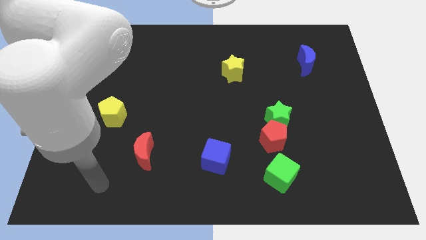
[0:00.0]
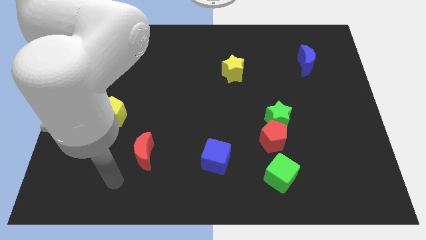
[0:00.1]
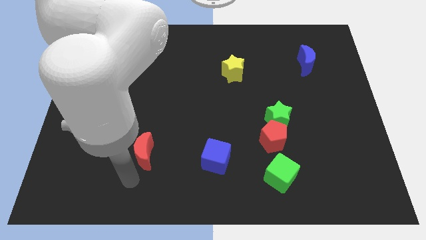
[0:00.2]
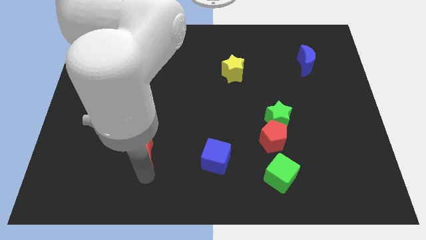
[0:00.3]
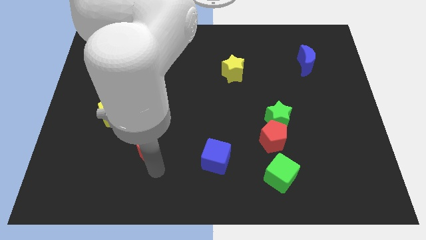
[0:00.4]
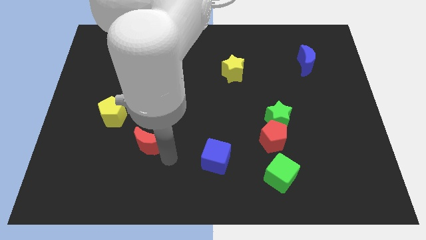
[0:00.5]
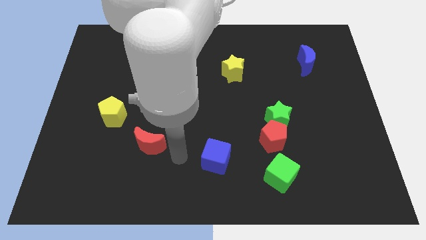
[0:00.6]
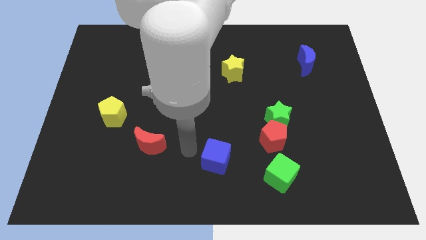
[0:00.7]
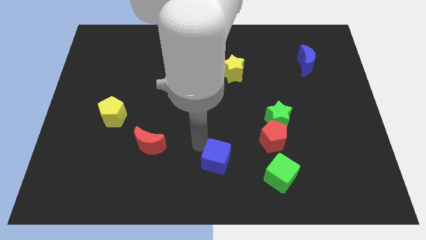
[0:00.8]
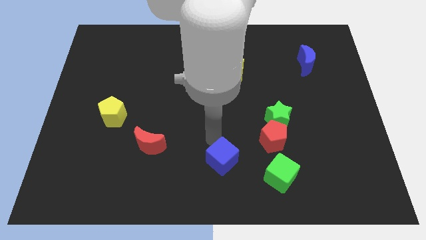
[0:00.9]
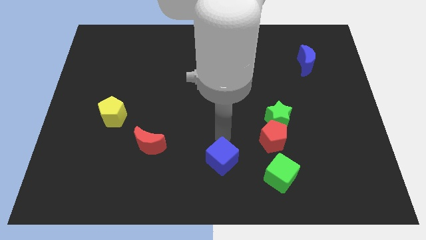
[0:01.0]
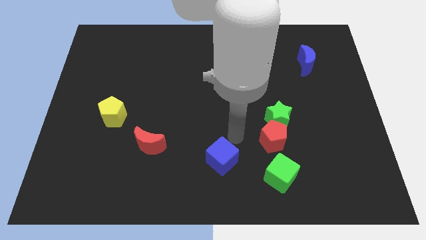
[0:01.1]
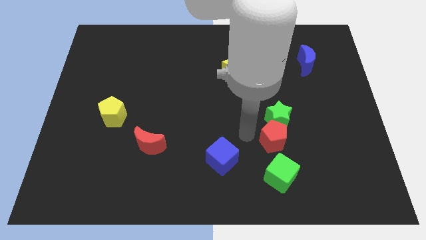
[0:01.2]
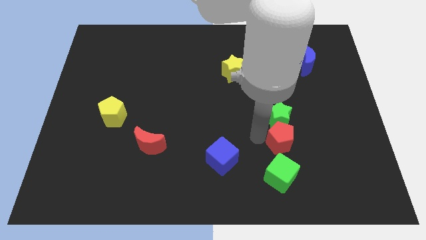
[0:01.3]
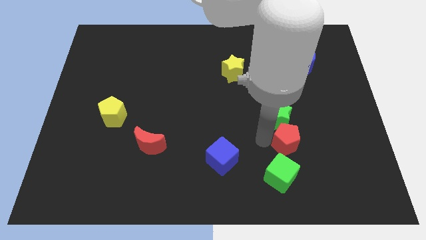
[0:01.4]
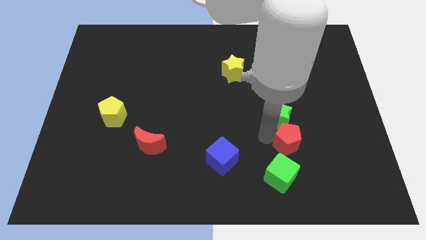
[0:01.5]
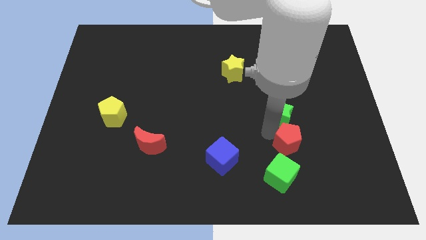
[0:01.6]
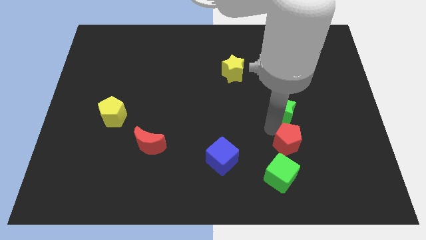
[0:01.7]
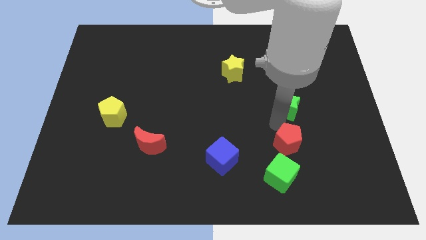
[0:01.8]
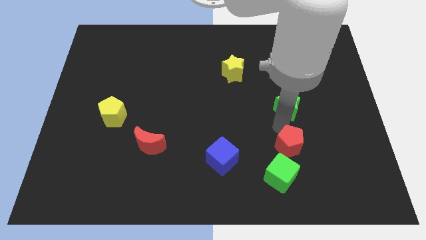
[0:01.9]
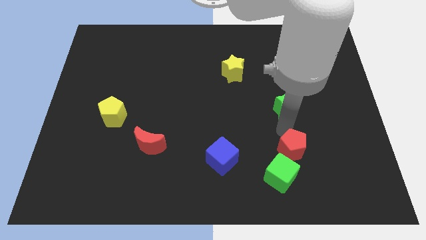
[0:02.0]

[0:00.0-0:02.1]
move the green star away from the red pentagon

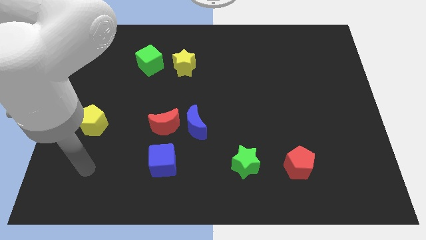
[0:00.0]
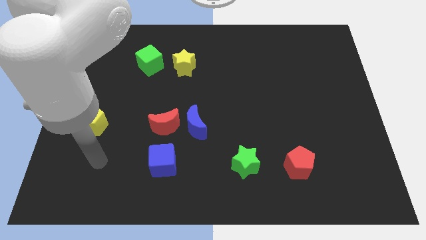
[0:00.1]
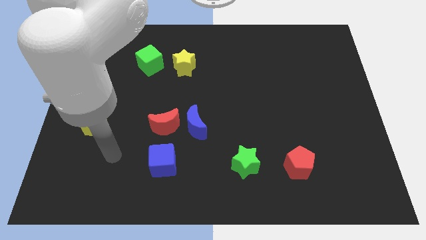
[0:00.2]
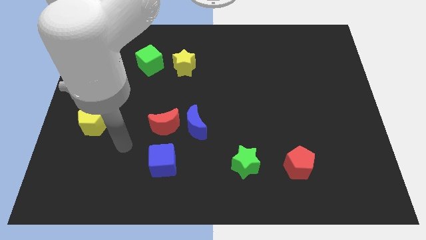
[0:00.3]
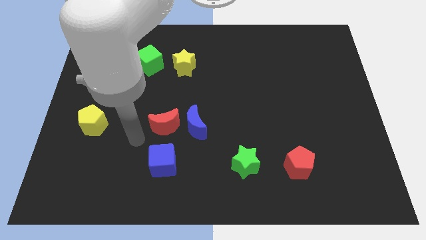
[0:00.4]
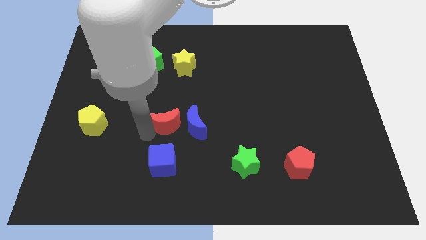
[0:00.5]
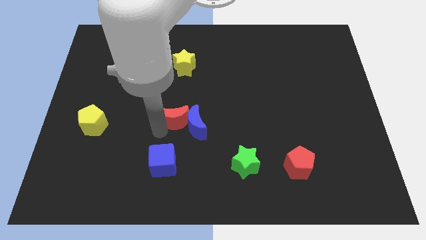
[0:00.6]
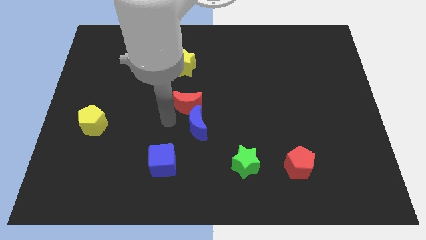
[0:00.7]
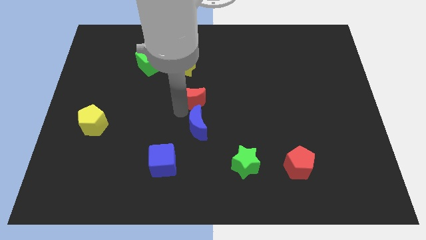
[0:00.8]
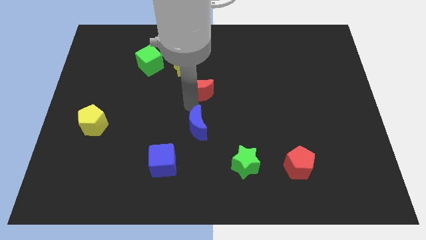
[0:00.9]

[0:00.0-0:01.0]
move the blue moon away from the red moon

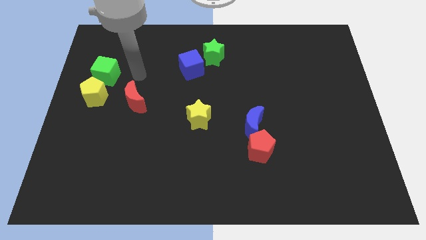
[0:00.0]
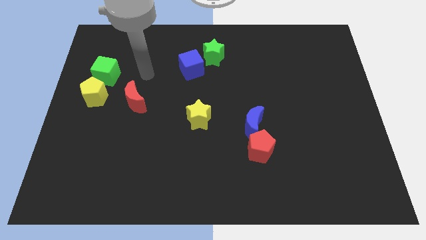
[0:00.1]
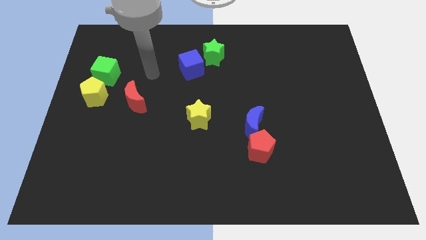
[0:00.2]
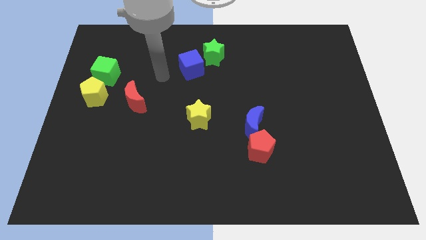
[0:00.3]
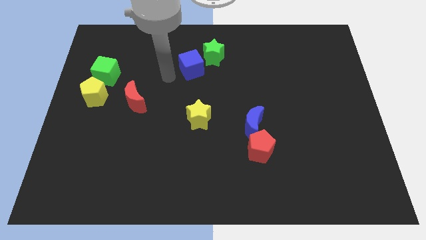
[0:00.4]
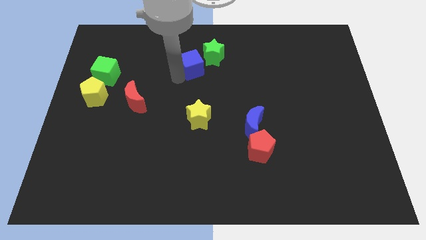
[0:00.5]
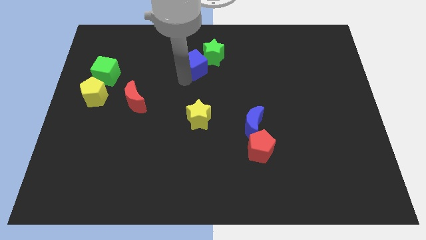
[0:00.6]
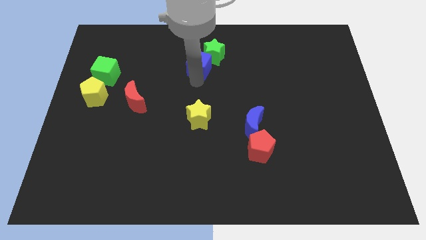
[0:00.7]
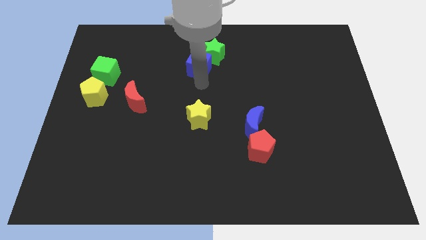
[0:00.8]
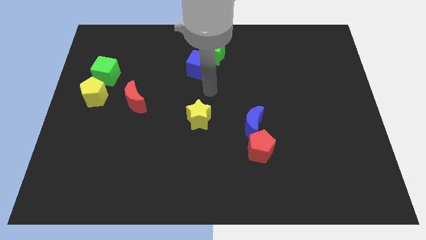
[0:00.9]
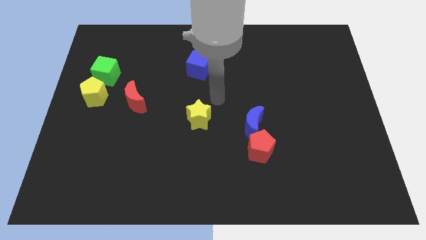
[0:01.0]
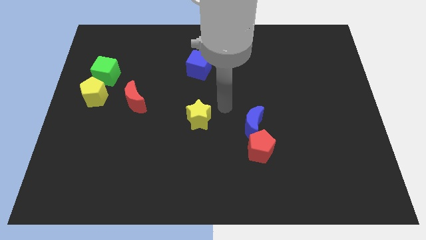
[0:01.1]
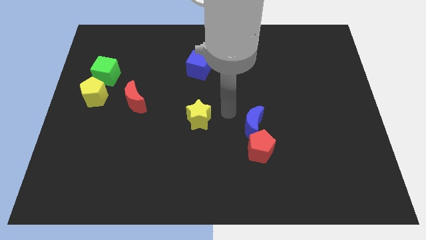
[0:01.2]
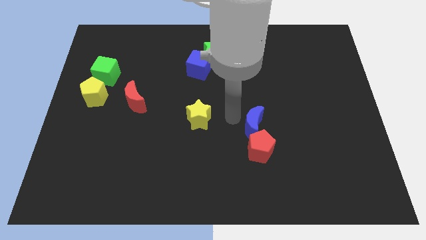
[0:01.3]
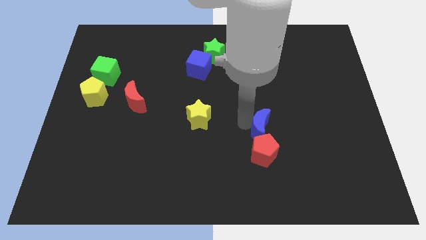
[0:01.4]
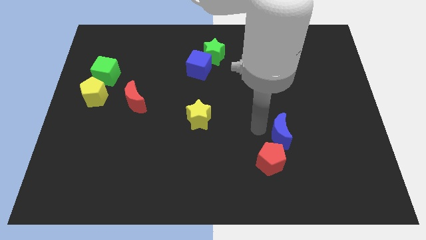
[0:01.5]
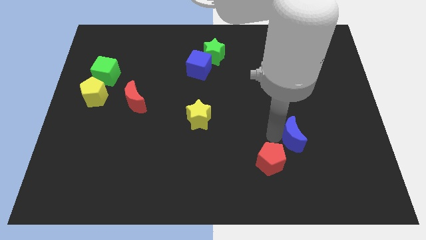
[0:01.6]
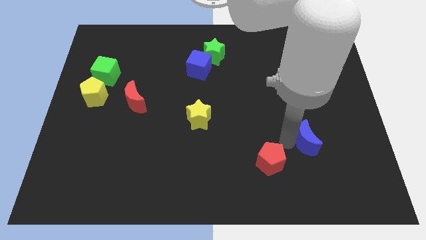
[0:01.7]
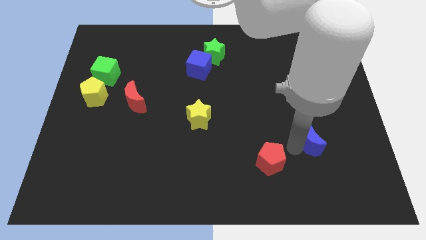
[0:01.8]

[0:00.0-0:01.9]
pull the red pentagon apart from the blue moon

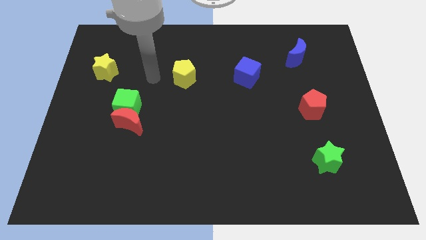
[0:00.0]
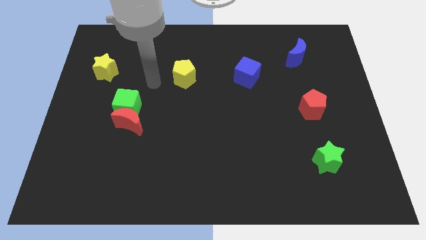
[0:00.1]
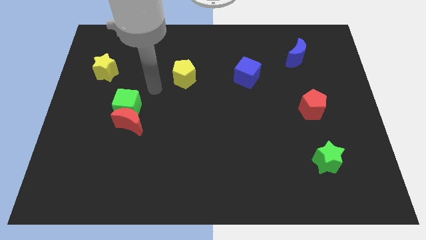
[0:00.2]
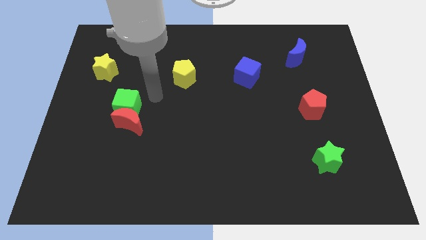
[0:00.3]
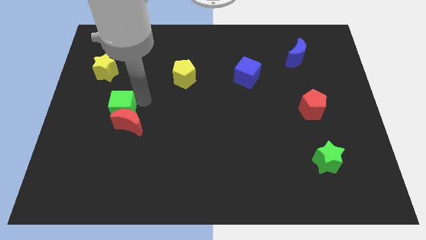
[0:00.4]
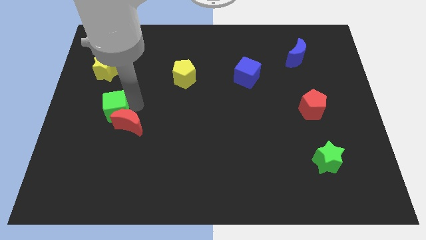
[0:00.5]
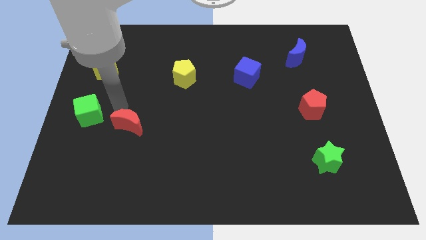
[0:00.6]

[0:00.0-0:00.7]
separate the red moon from the green cube

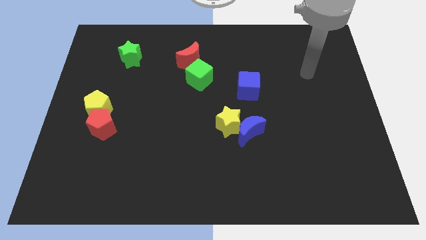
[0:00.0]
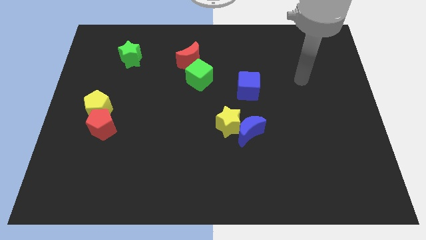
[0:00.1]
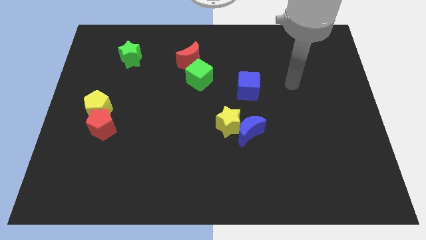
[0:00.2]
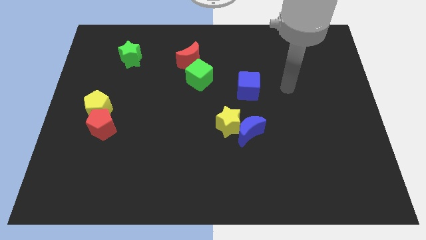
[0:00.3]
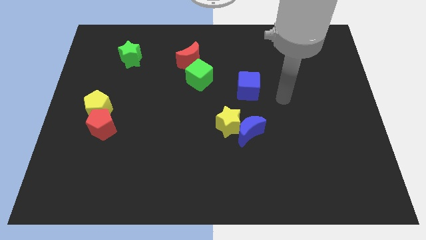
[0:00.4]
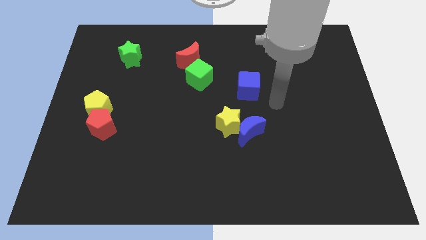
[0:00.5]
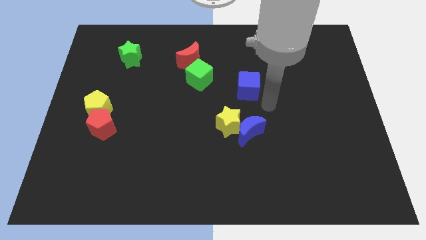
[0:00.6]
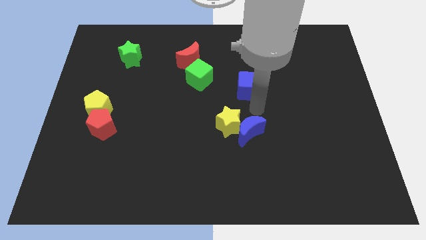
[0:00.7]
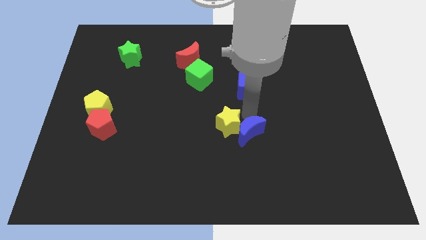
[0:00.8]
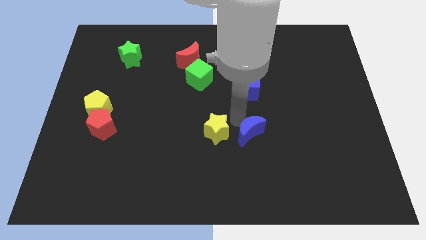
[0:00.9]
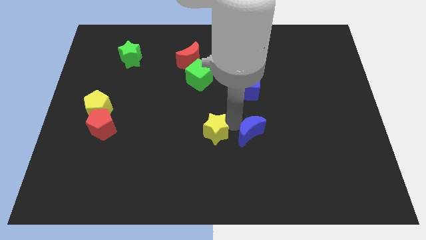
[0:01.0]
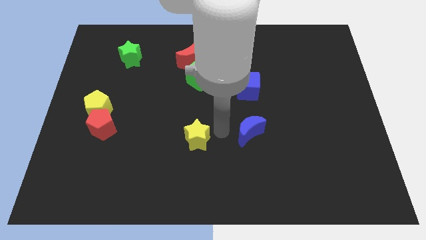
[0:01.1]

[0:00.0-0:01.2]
separate the blue moon from the yellow star

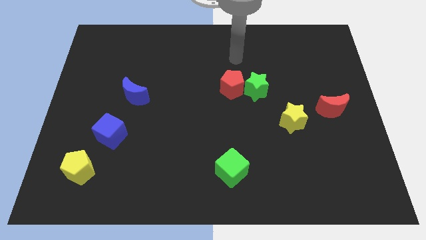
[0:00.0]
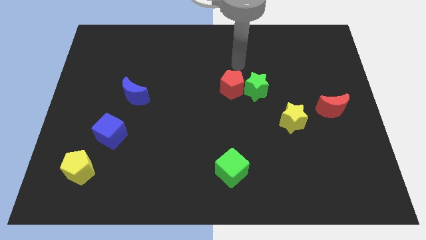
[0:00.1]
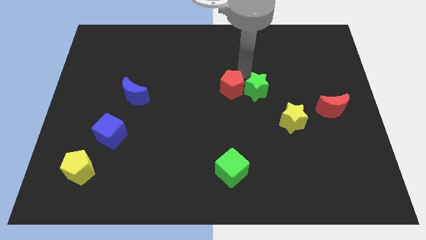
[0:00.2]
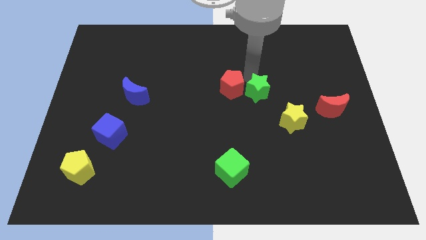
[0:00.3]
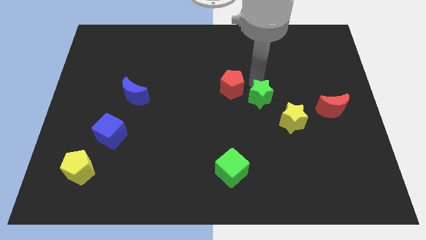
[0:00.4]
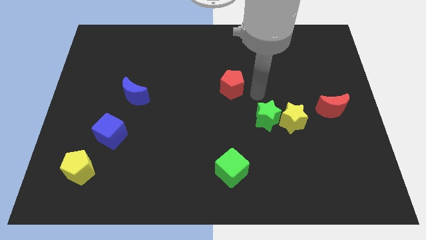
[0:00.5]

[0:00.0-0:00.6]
pull the red pentagon apart from the green star

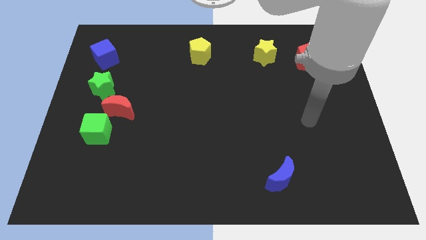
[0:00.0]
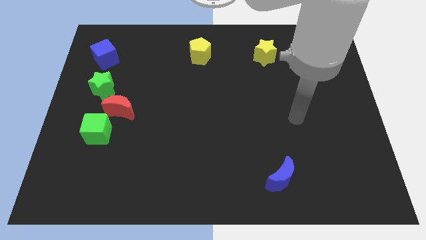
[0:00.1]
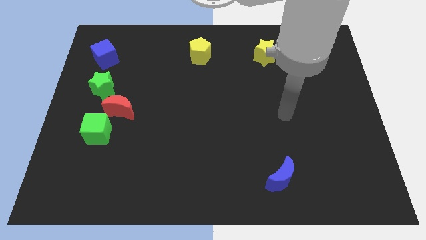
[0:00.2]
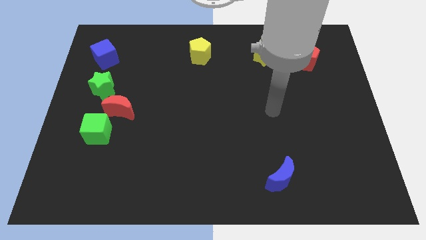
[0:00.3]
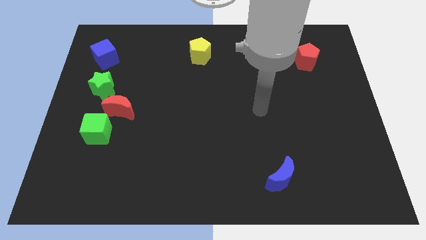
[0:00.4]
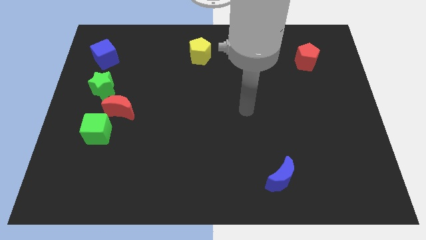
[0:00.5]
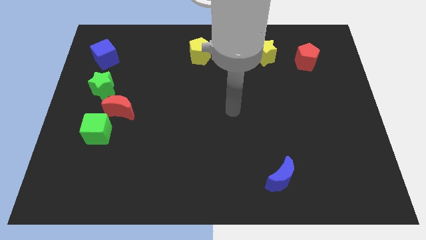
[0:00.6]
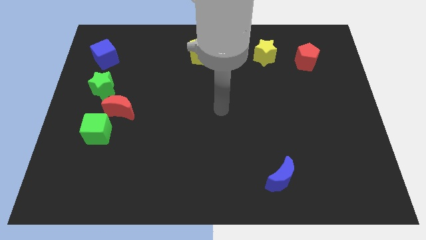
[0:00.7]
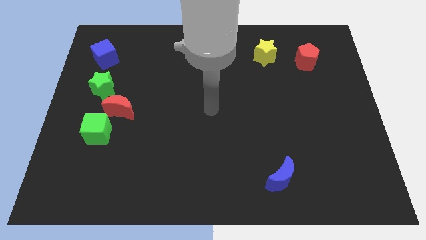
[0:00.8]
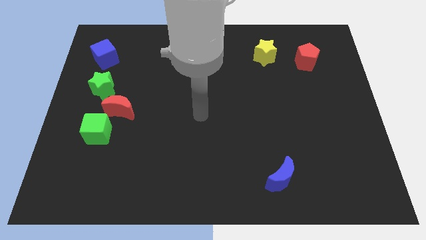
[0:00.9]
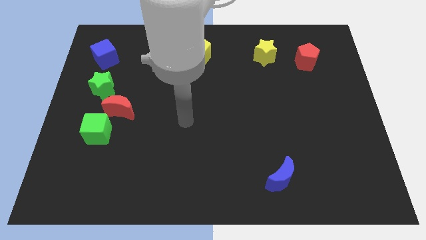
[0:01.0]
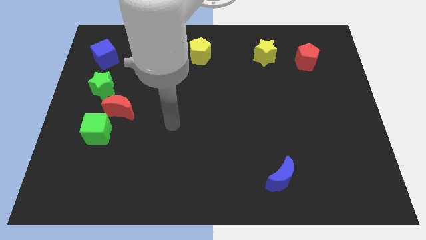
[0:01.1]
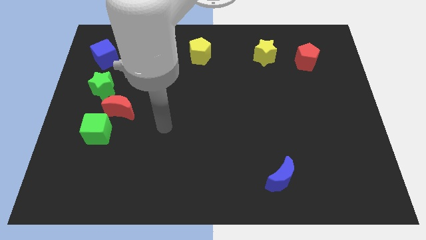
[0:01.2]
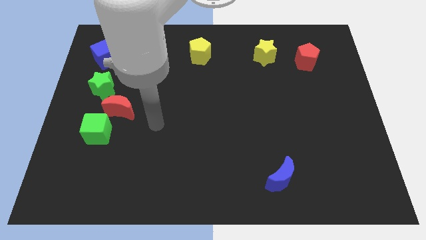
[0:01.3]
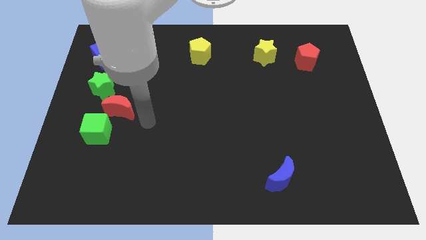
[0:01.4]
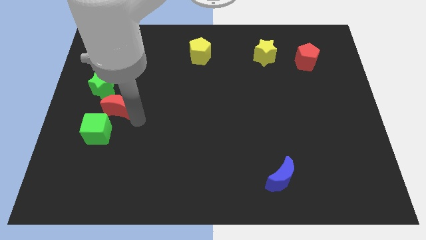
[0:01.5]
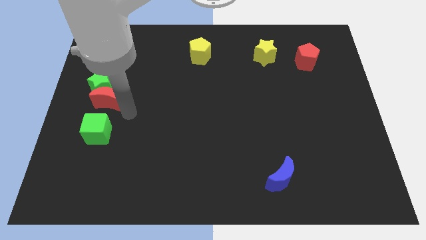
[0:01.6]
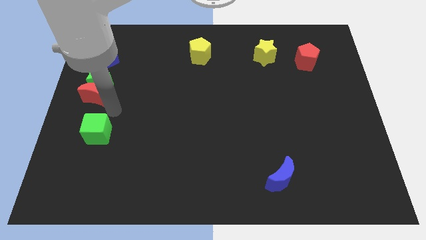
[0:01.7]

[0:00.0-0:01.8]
separate the green cube from the red moon
